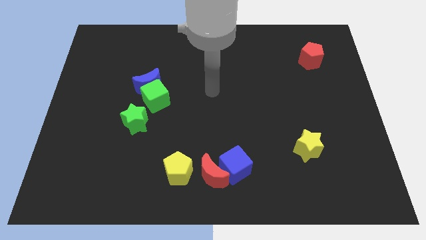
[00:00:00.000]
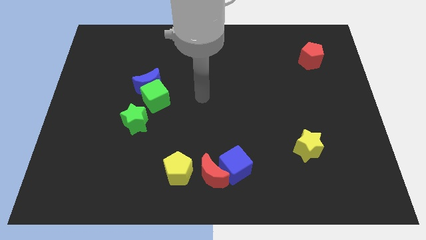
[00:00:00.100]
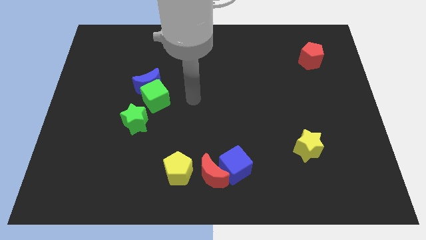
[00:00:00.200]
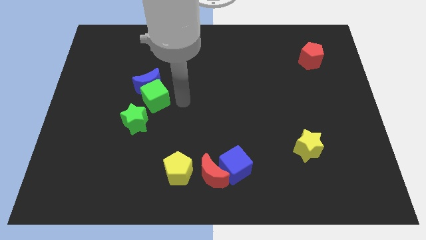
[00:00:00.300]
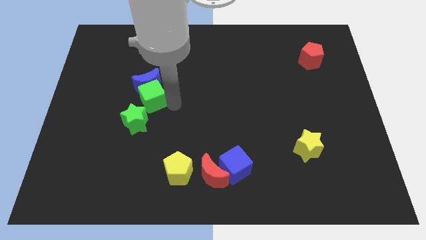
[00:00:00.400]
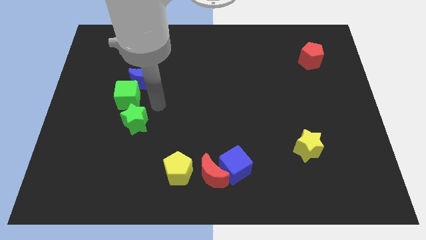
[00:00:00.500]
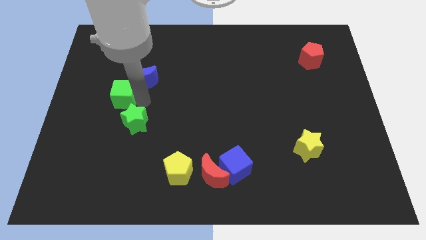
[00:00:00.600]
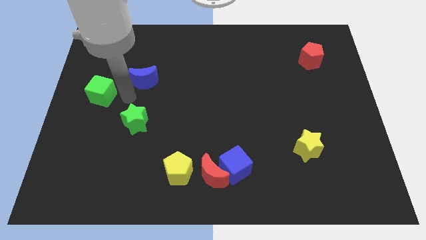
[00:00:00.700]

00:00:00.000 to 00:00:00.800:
pull the blue moon apart from the green cube

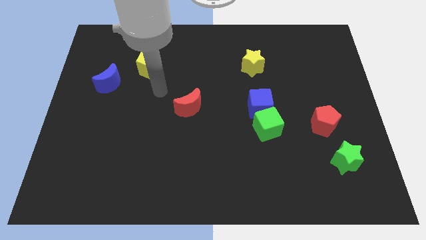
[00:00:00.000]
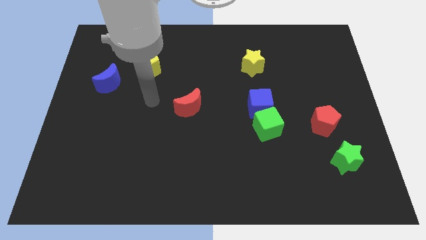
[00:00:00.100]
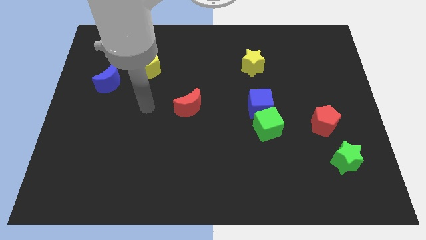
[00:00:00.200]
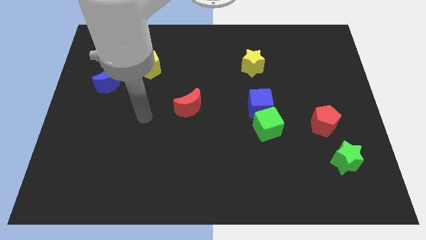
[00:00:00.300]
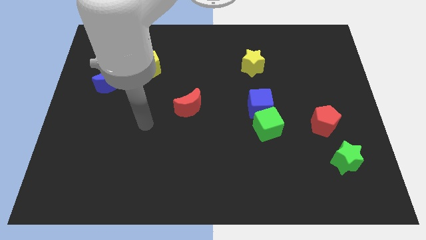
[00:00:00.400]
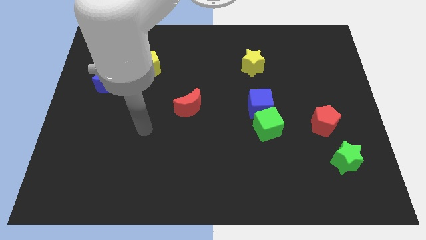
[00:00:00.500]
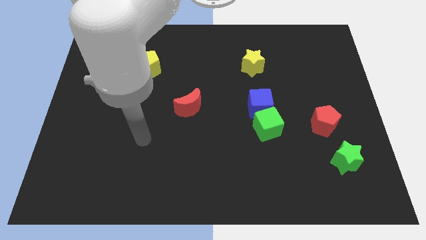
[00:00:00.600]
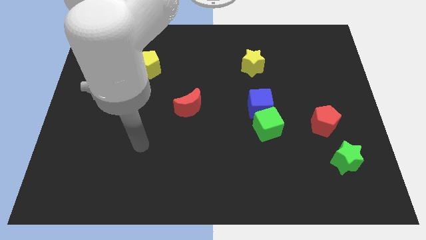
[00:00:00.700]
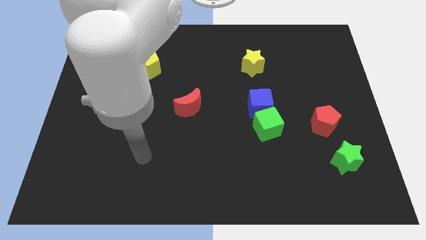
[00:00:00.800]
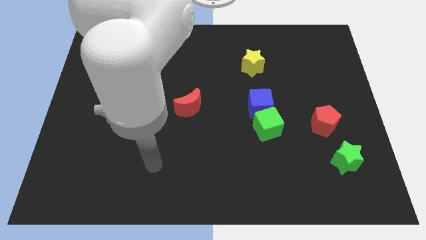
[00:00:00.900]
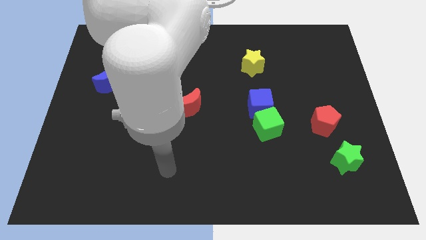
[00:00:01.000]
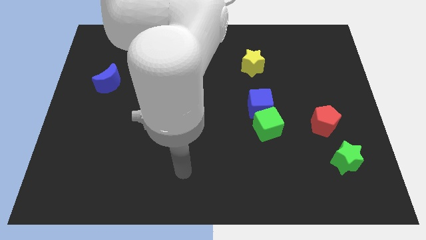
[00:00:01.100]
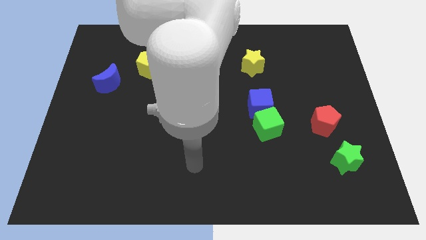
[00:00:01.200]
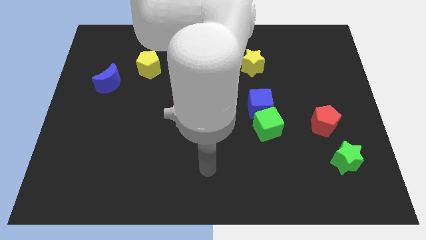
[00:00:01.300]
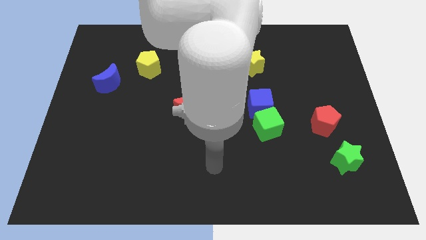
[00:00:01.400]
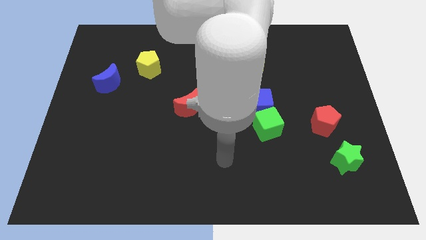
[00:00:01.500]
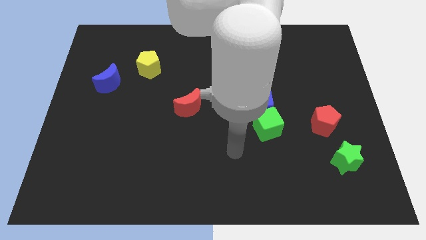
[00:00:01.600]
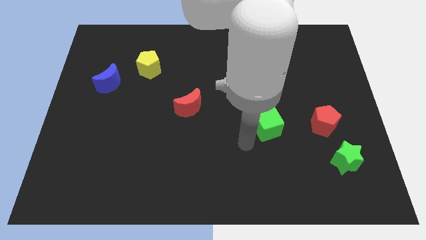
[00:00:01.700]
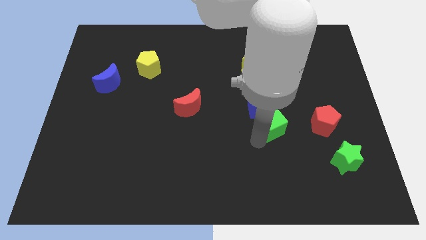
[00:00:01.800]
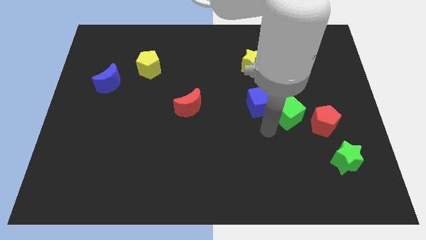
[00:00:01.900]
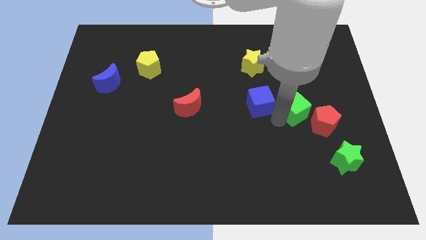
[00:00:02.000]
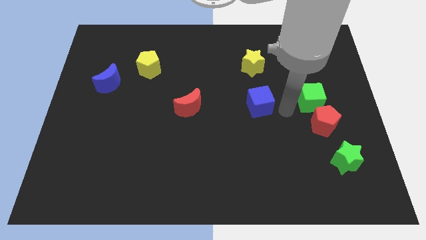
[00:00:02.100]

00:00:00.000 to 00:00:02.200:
separate the blue cube from the green cube

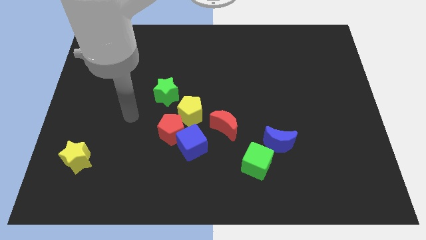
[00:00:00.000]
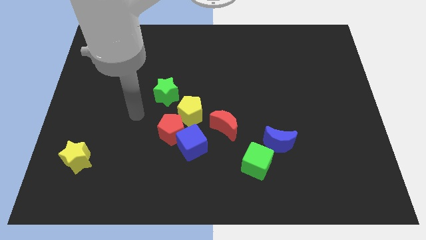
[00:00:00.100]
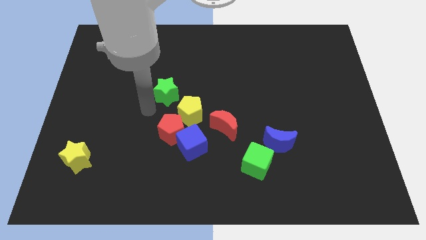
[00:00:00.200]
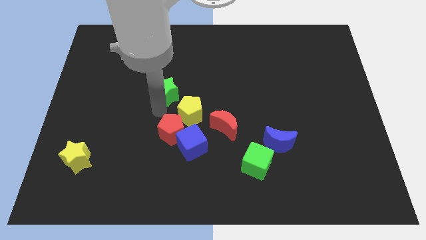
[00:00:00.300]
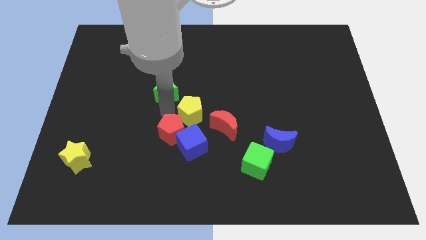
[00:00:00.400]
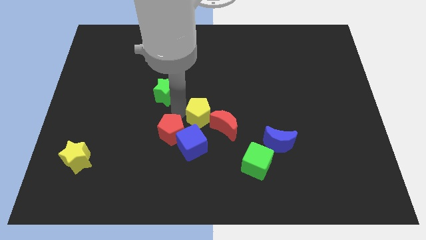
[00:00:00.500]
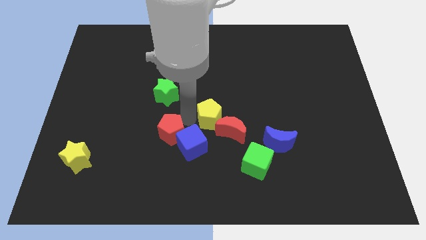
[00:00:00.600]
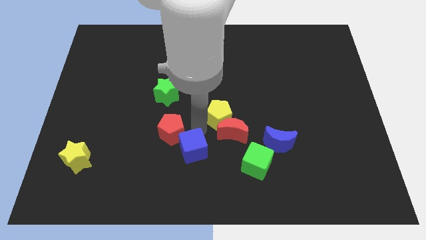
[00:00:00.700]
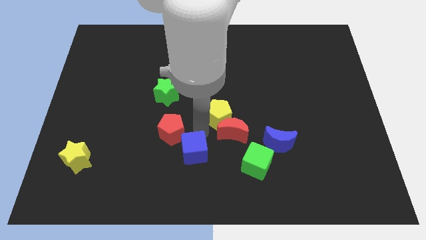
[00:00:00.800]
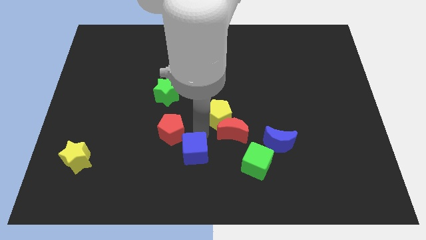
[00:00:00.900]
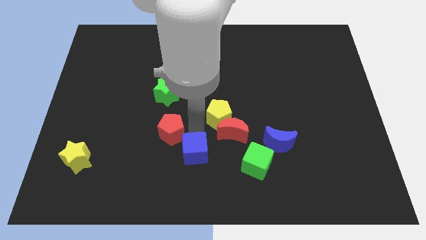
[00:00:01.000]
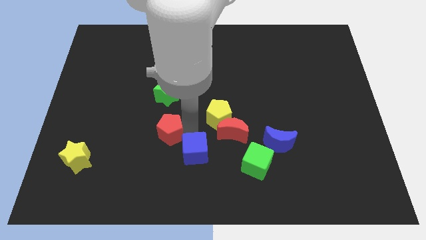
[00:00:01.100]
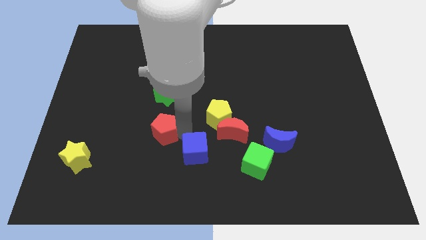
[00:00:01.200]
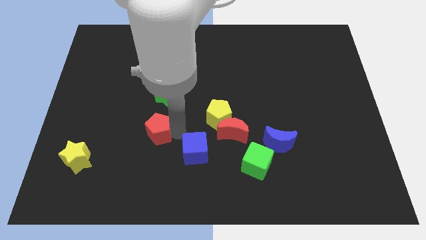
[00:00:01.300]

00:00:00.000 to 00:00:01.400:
move the red pentagon away from the blue cube and yellow pentagon

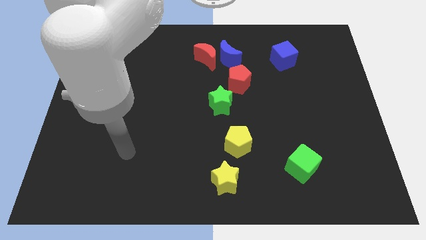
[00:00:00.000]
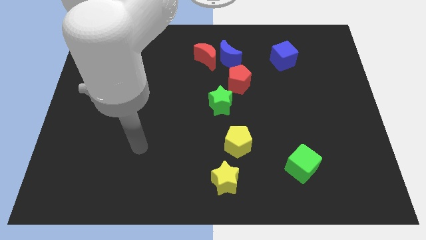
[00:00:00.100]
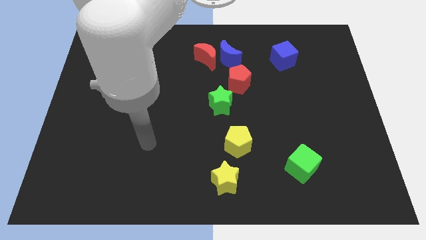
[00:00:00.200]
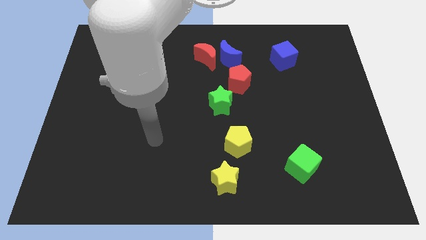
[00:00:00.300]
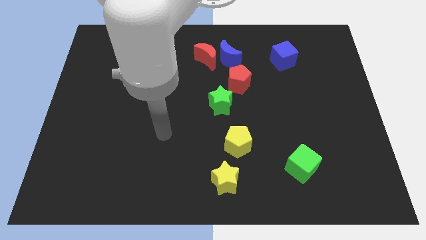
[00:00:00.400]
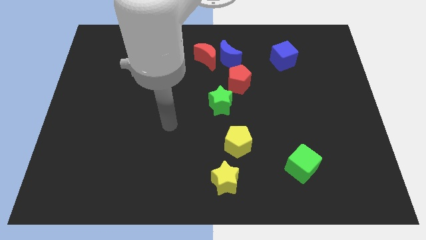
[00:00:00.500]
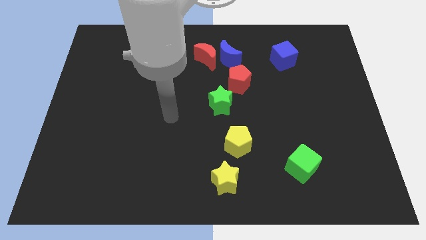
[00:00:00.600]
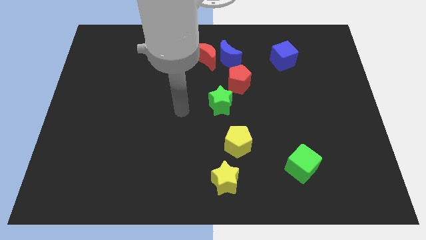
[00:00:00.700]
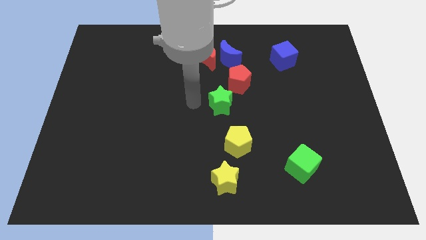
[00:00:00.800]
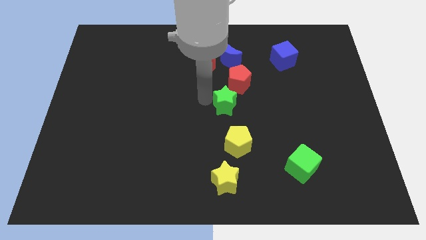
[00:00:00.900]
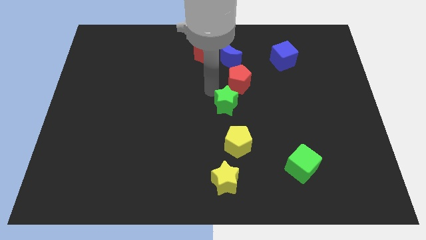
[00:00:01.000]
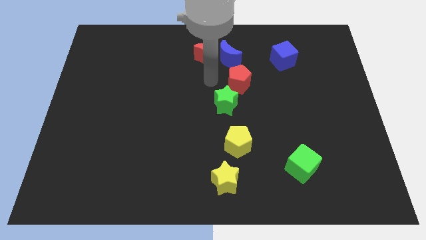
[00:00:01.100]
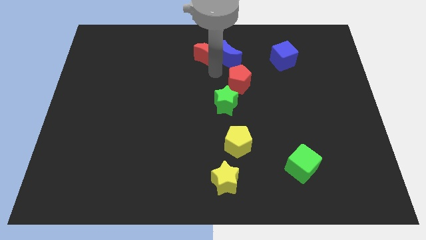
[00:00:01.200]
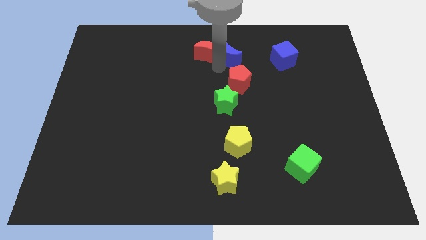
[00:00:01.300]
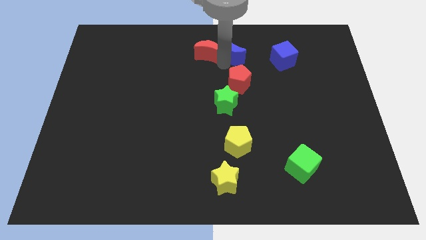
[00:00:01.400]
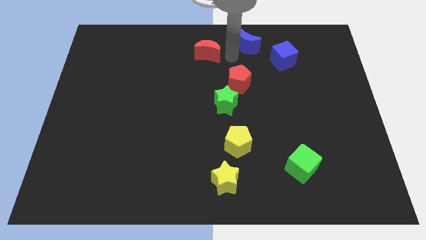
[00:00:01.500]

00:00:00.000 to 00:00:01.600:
separate the red moon from the blue moon

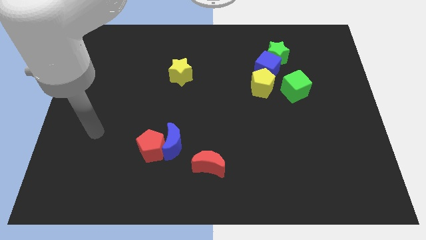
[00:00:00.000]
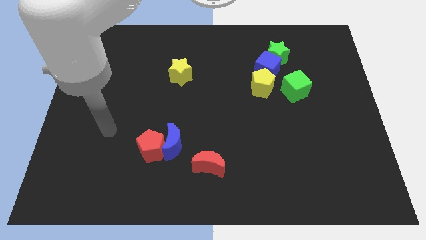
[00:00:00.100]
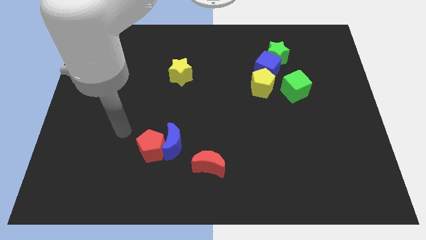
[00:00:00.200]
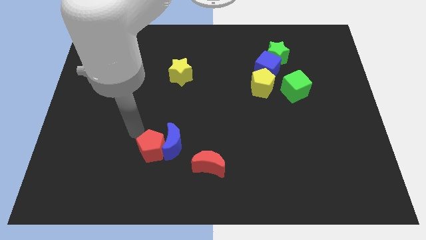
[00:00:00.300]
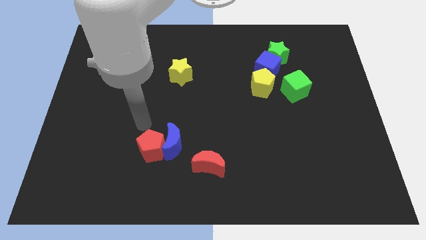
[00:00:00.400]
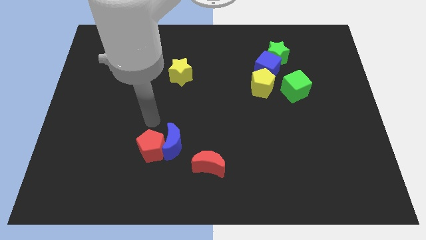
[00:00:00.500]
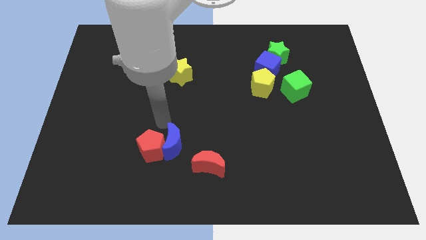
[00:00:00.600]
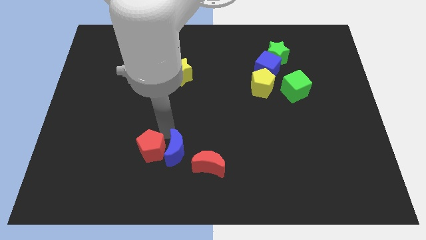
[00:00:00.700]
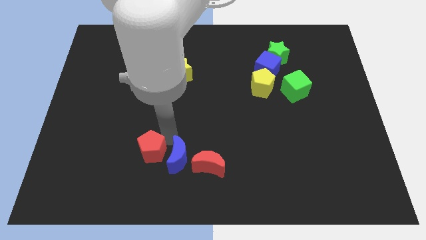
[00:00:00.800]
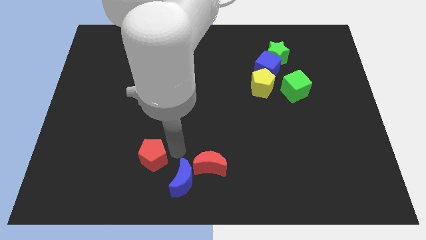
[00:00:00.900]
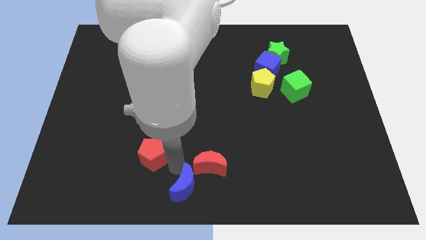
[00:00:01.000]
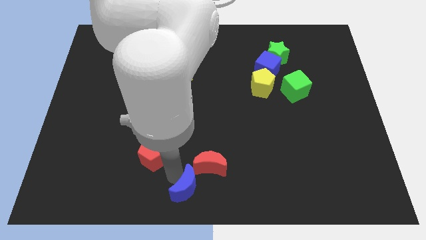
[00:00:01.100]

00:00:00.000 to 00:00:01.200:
separate the red pentagon from the blue moon

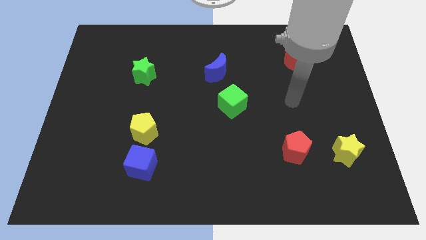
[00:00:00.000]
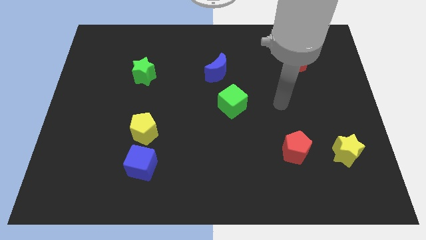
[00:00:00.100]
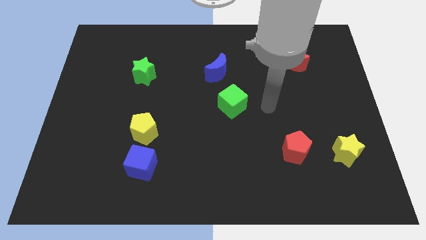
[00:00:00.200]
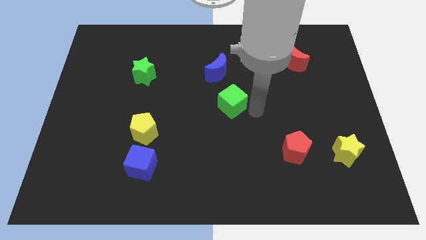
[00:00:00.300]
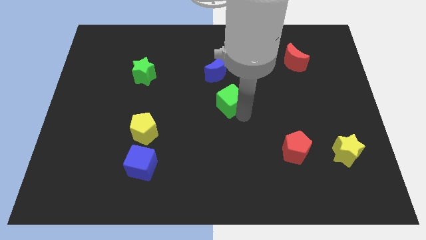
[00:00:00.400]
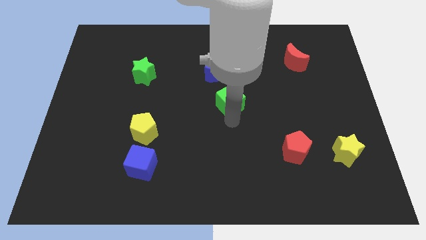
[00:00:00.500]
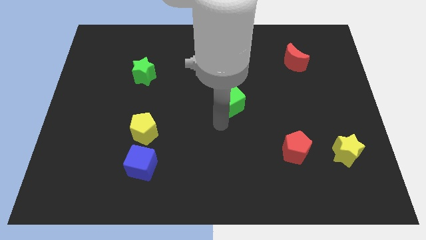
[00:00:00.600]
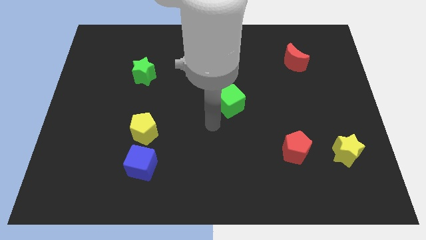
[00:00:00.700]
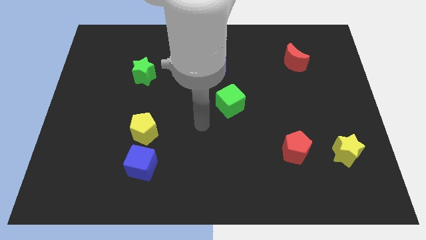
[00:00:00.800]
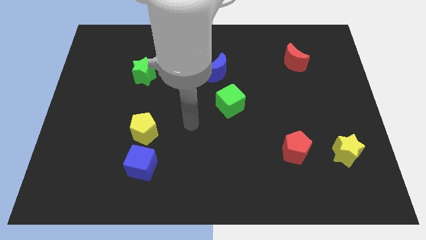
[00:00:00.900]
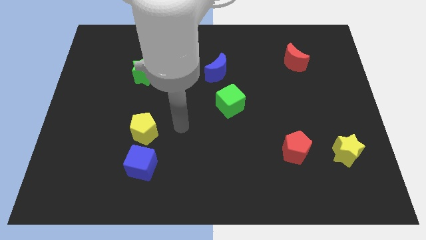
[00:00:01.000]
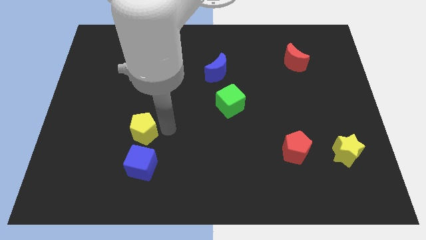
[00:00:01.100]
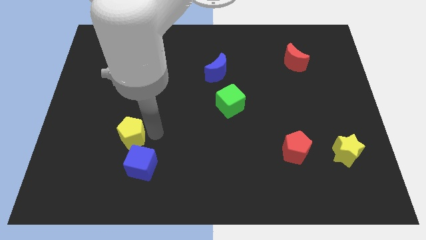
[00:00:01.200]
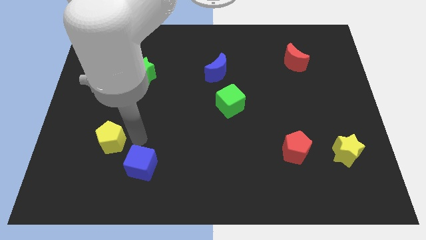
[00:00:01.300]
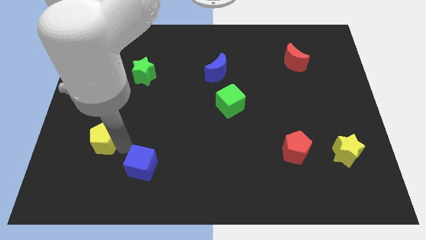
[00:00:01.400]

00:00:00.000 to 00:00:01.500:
move the blue cube away from the yellow pentagon

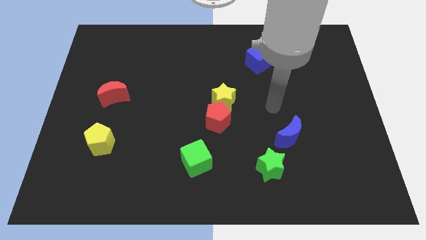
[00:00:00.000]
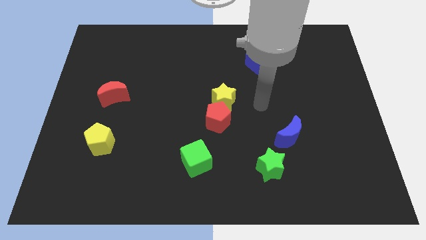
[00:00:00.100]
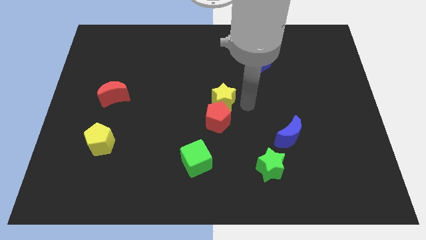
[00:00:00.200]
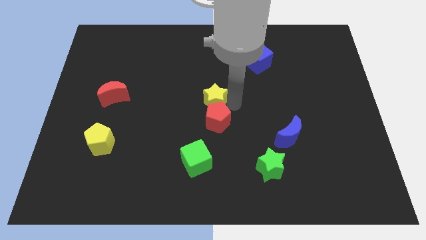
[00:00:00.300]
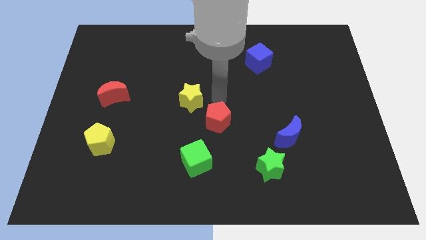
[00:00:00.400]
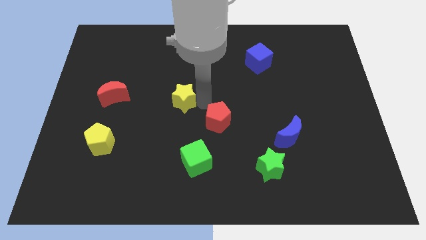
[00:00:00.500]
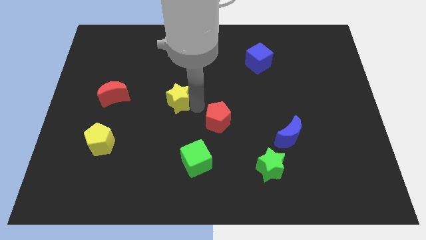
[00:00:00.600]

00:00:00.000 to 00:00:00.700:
separate the red pentagon from the yellow star
